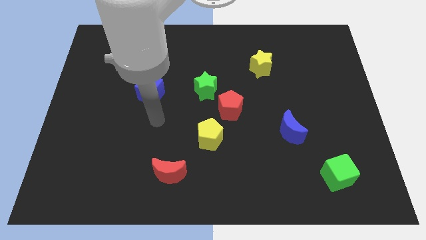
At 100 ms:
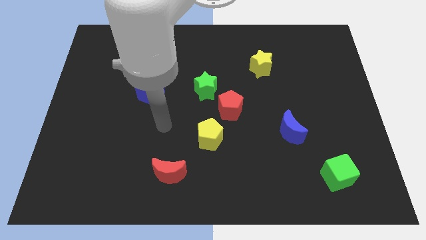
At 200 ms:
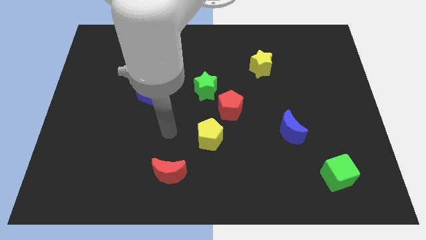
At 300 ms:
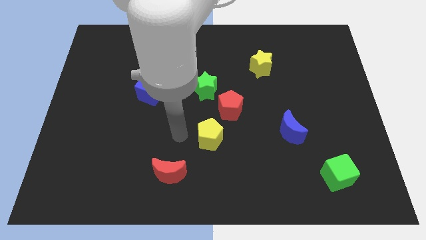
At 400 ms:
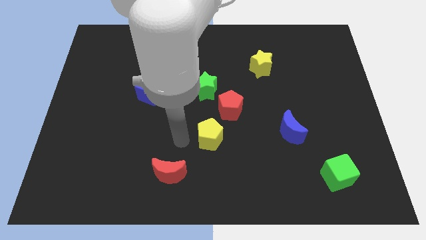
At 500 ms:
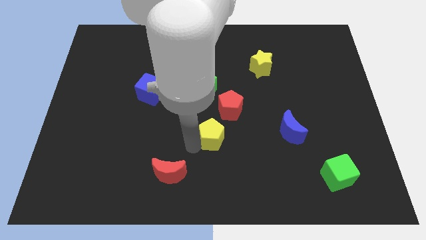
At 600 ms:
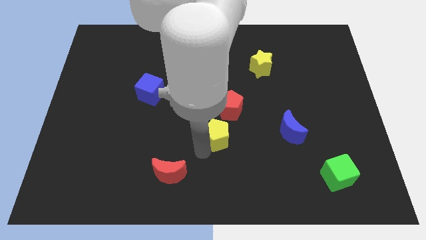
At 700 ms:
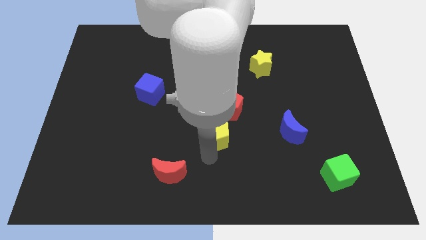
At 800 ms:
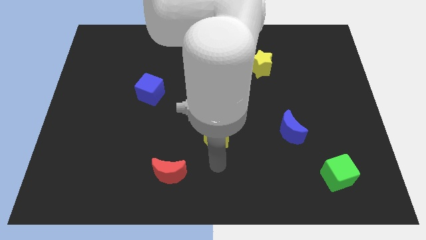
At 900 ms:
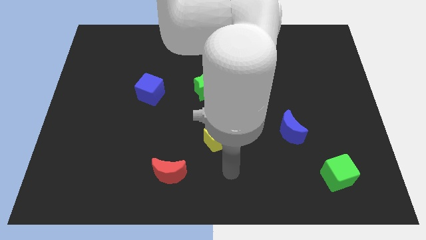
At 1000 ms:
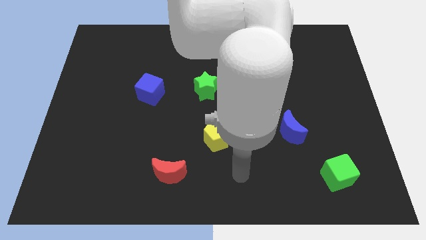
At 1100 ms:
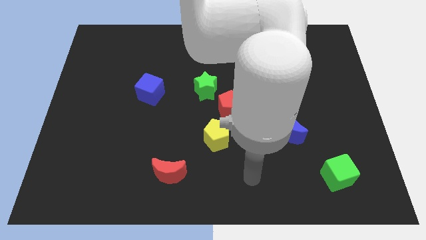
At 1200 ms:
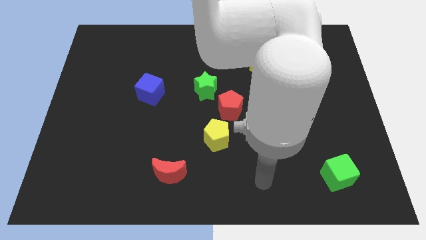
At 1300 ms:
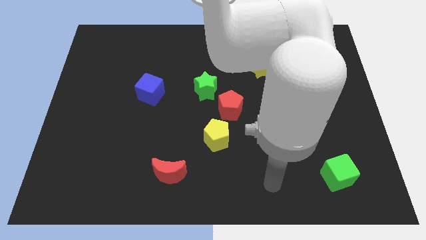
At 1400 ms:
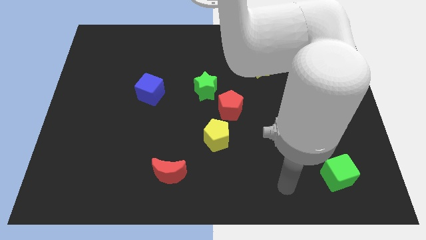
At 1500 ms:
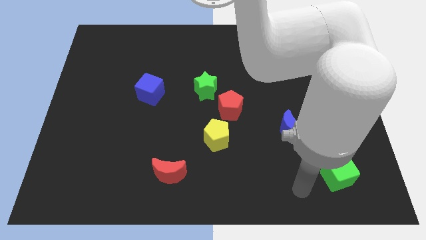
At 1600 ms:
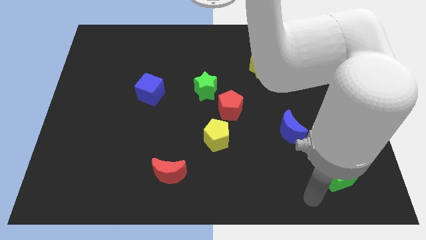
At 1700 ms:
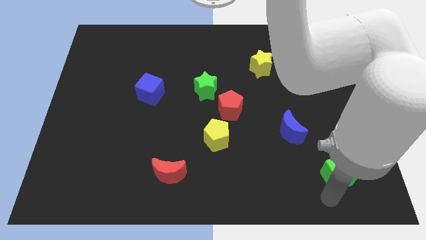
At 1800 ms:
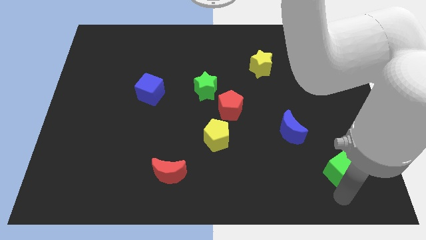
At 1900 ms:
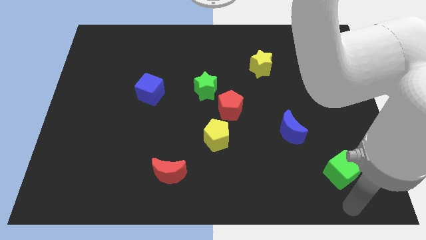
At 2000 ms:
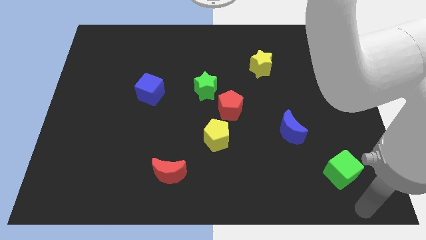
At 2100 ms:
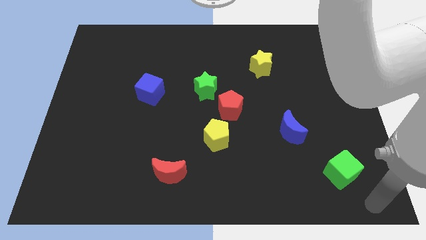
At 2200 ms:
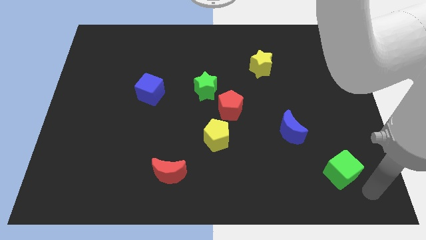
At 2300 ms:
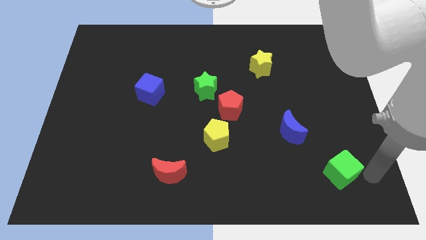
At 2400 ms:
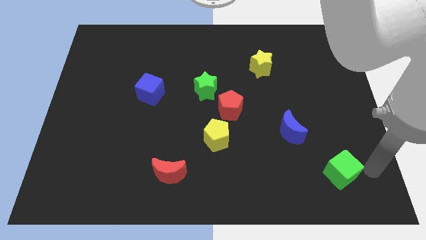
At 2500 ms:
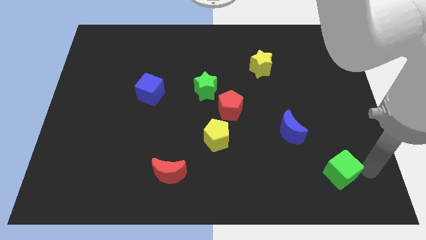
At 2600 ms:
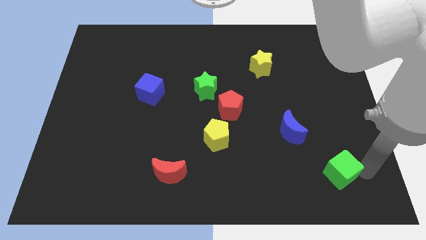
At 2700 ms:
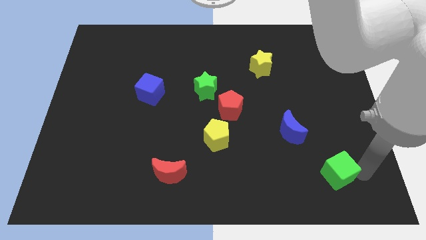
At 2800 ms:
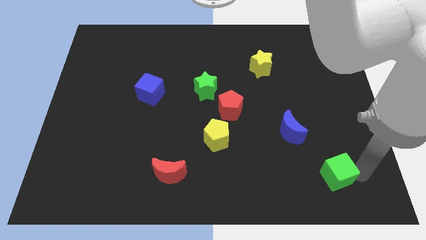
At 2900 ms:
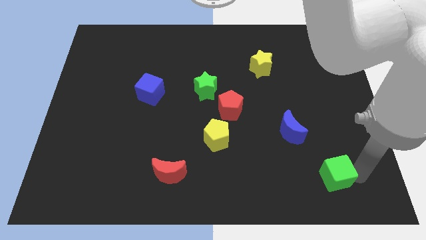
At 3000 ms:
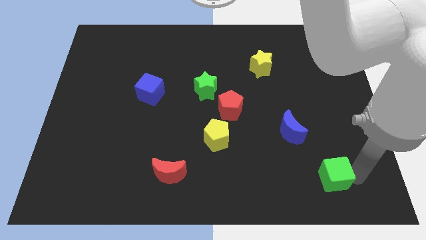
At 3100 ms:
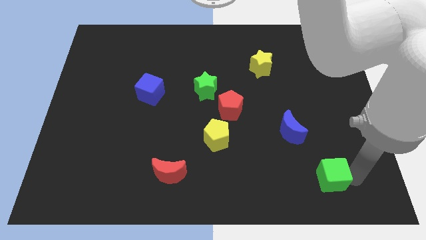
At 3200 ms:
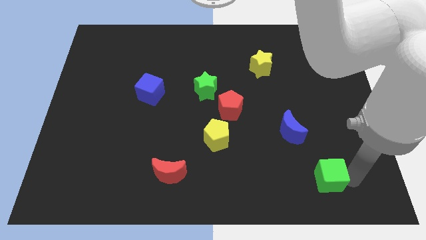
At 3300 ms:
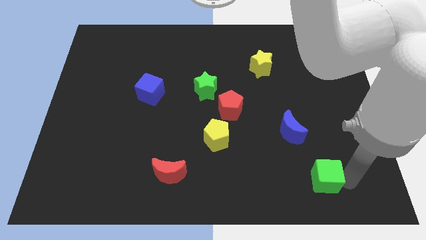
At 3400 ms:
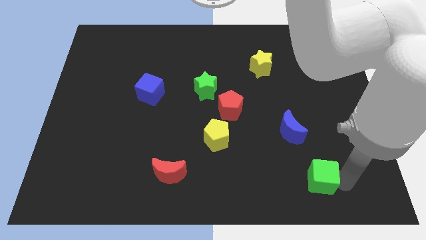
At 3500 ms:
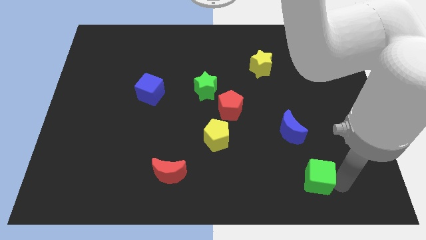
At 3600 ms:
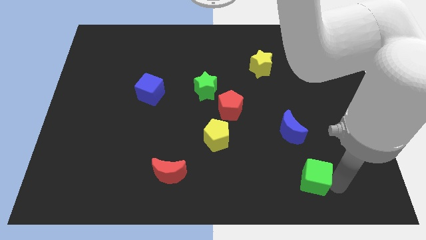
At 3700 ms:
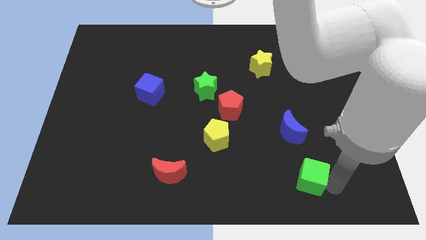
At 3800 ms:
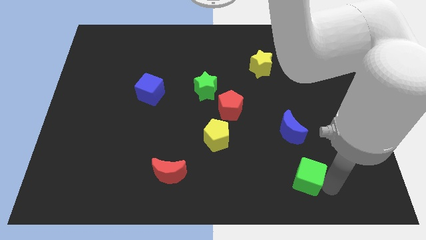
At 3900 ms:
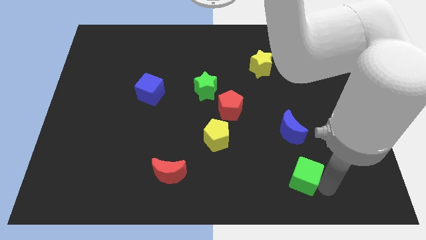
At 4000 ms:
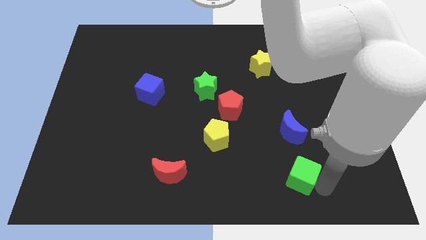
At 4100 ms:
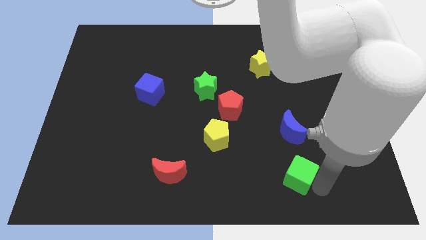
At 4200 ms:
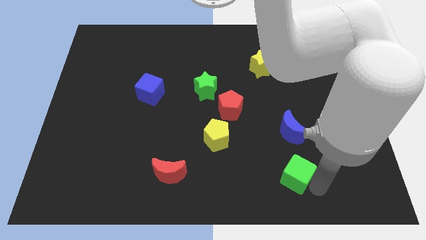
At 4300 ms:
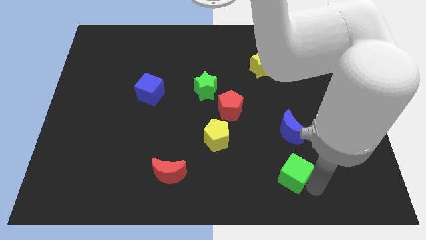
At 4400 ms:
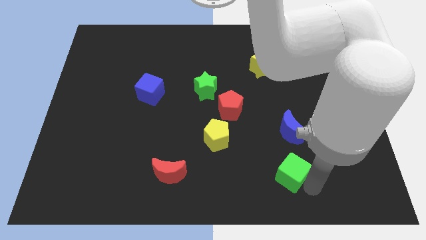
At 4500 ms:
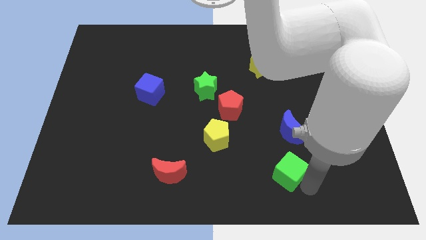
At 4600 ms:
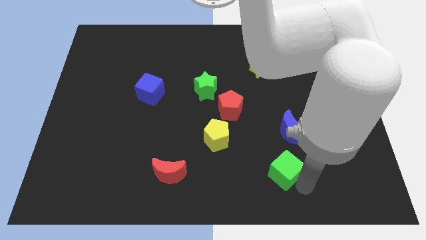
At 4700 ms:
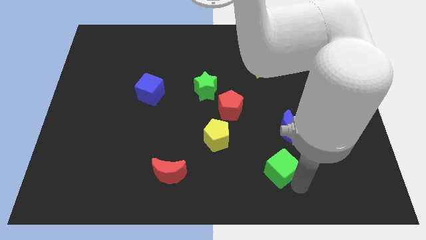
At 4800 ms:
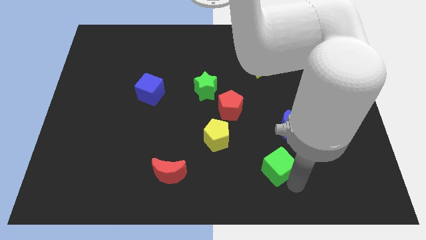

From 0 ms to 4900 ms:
move the green cube up and to the left diagonally a little

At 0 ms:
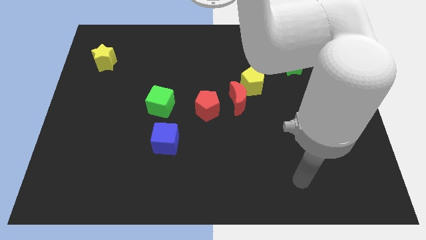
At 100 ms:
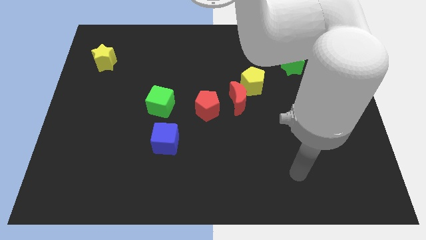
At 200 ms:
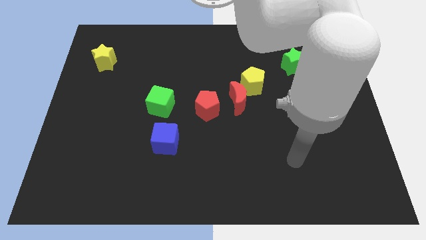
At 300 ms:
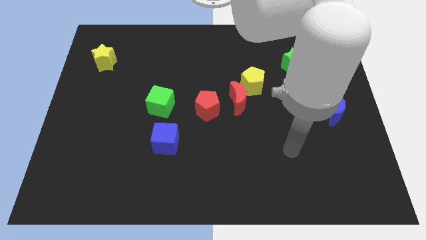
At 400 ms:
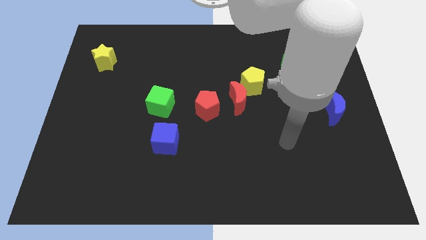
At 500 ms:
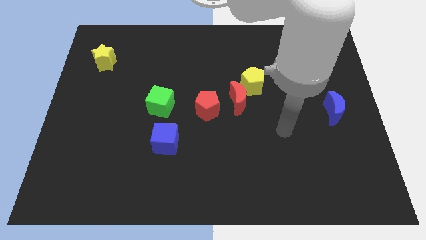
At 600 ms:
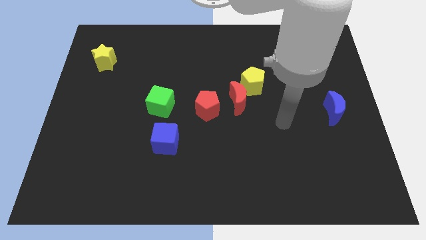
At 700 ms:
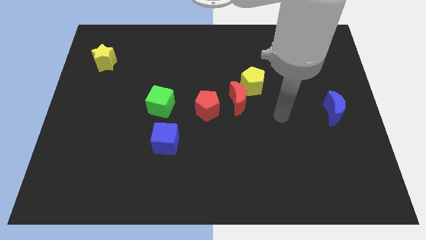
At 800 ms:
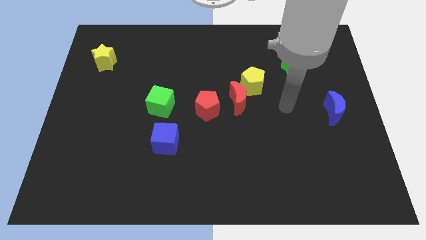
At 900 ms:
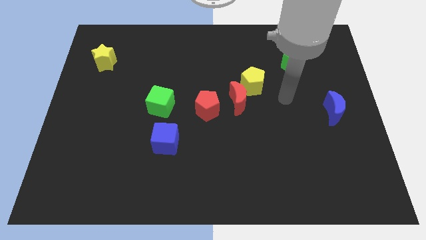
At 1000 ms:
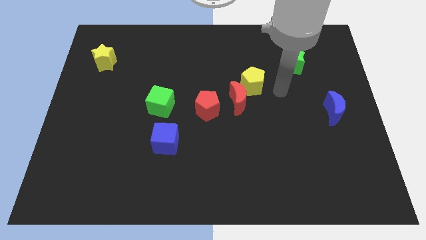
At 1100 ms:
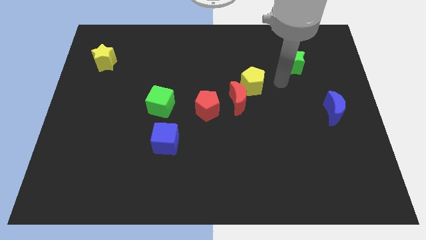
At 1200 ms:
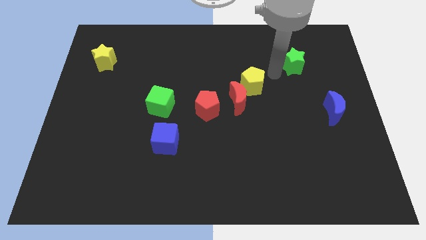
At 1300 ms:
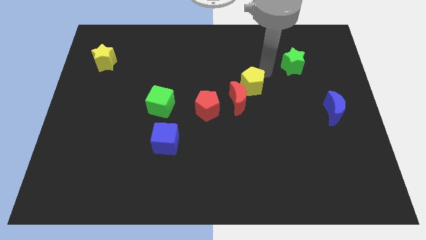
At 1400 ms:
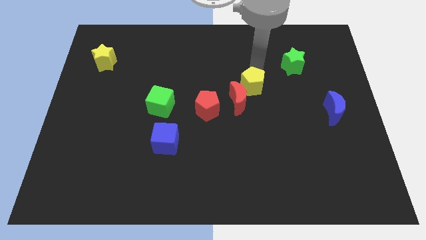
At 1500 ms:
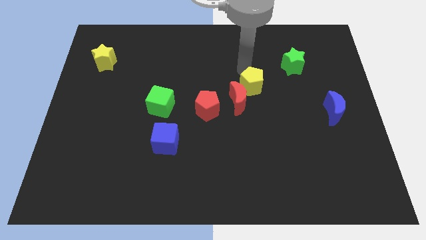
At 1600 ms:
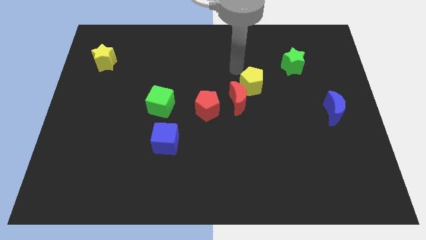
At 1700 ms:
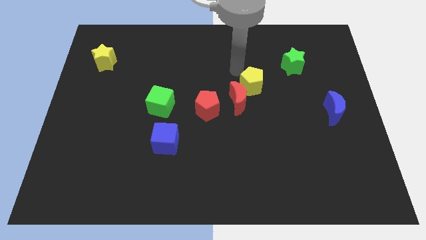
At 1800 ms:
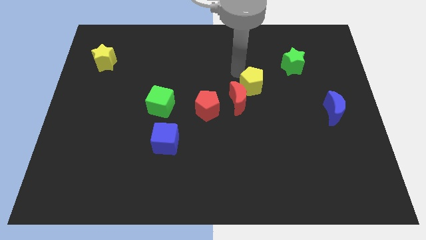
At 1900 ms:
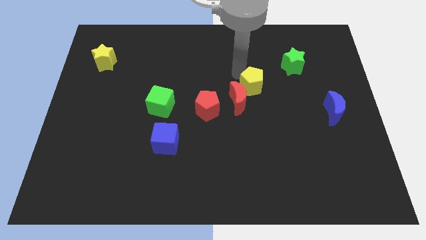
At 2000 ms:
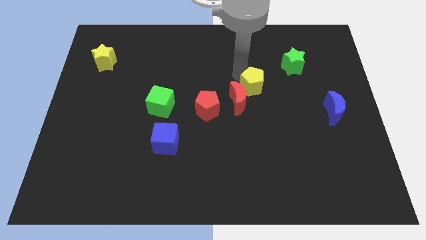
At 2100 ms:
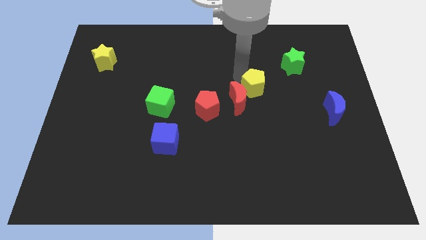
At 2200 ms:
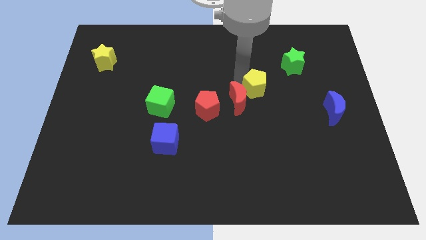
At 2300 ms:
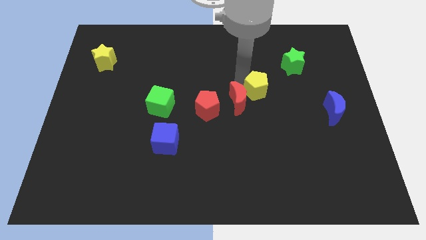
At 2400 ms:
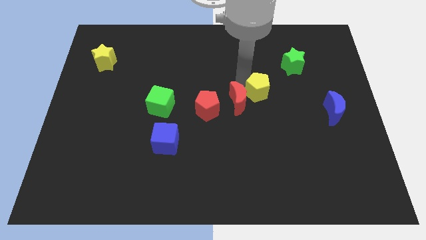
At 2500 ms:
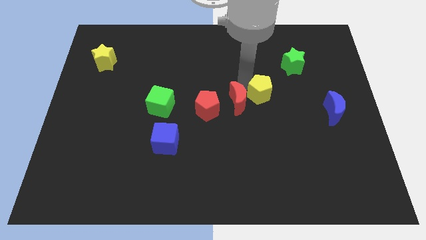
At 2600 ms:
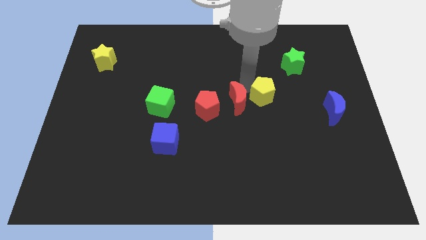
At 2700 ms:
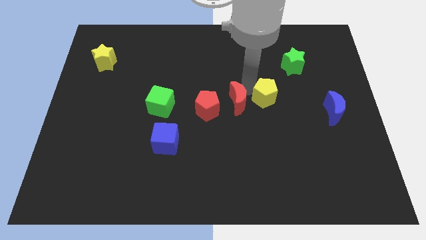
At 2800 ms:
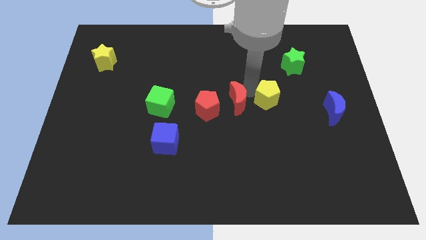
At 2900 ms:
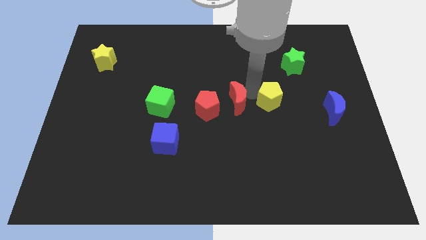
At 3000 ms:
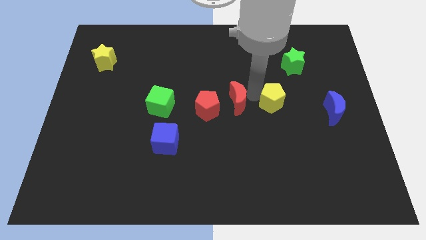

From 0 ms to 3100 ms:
slide the yellow pentagon a little bit down and right diagonally

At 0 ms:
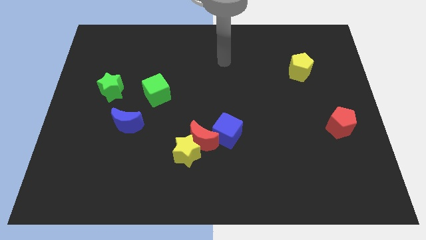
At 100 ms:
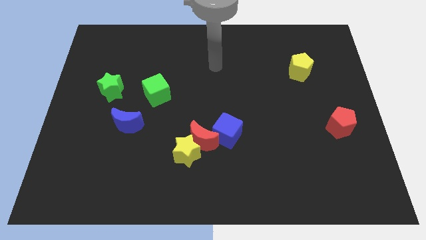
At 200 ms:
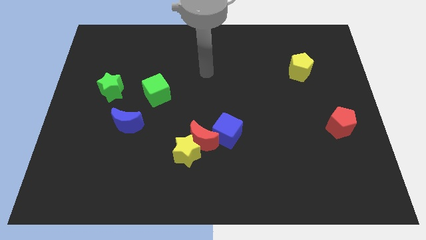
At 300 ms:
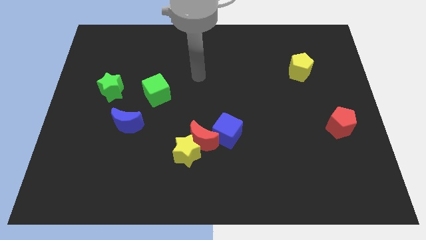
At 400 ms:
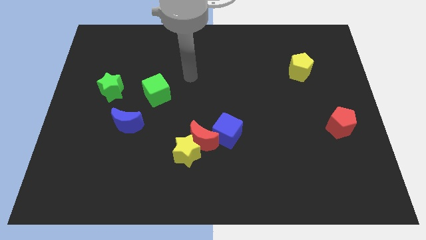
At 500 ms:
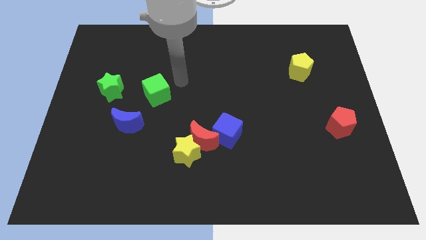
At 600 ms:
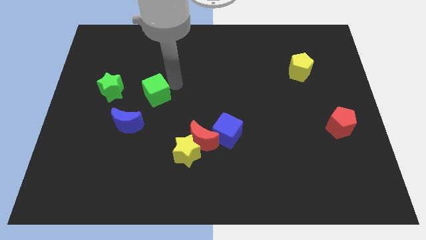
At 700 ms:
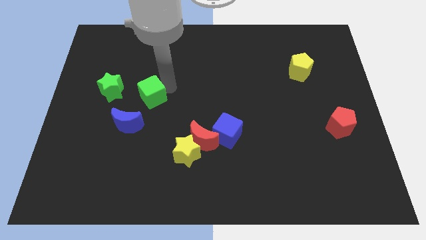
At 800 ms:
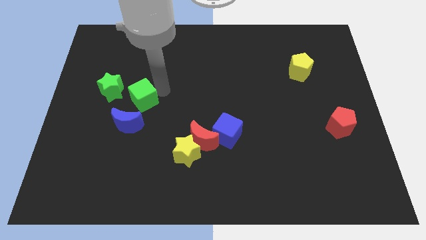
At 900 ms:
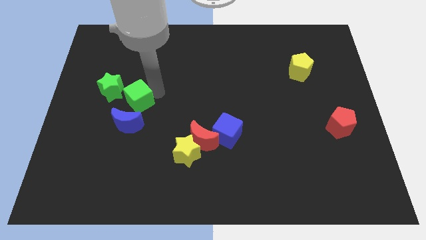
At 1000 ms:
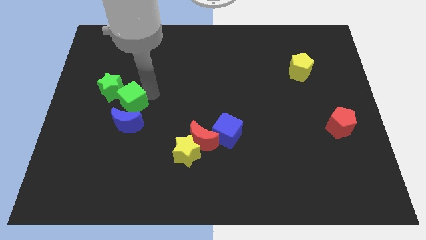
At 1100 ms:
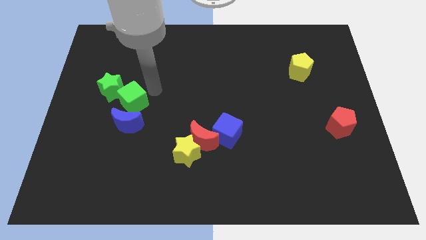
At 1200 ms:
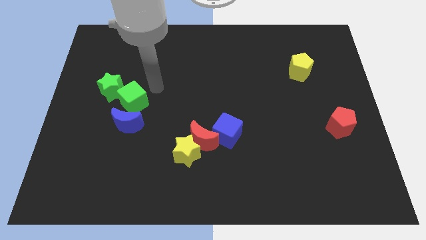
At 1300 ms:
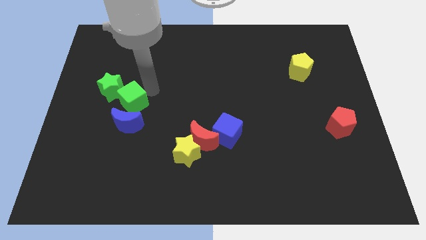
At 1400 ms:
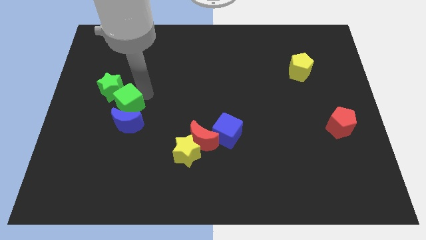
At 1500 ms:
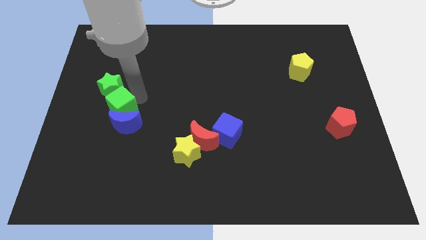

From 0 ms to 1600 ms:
push the green cube down and then to the left slightly
